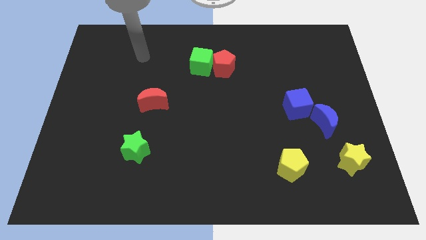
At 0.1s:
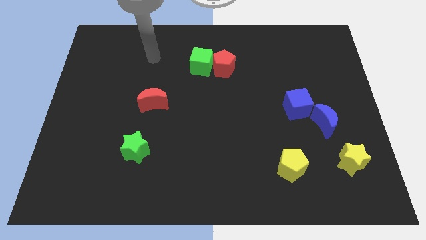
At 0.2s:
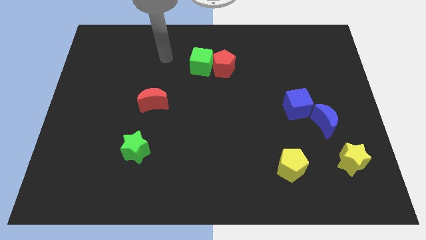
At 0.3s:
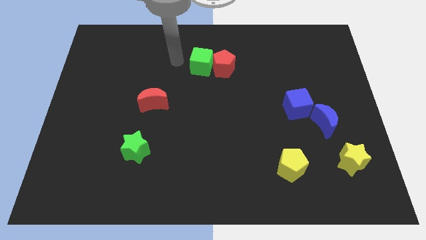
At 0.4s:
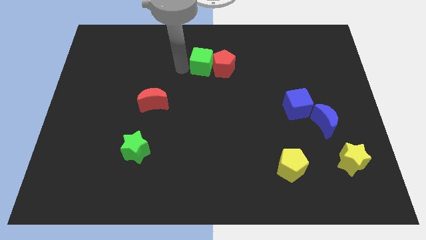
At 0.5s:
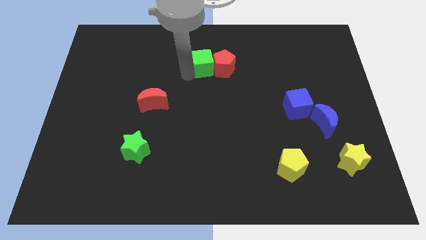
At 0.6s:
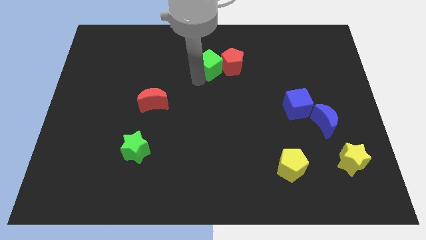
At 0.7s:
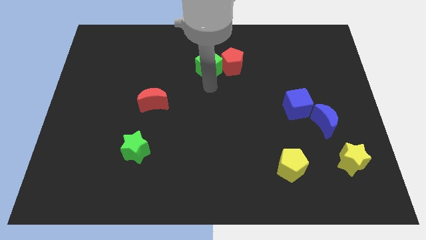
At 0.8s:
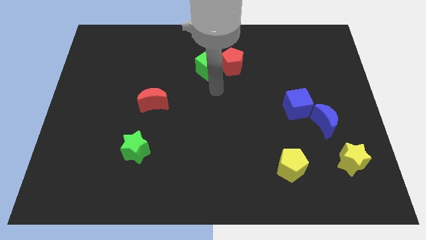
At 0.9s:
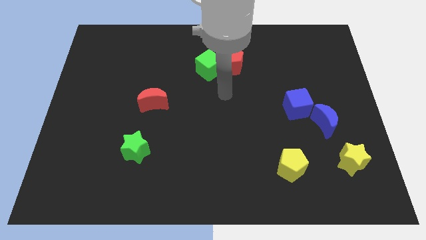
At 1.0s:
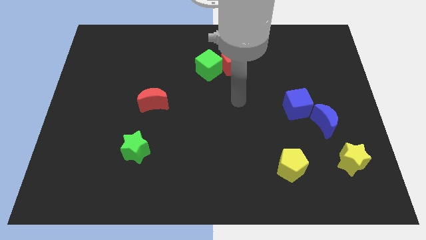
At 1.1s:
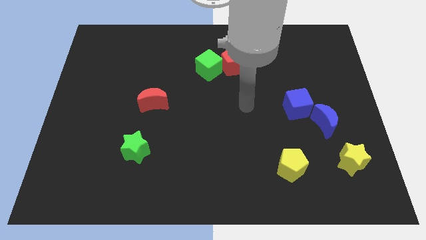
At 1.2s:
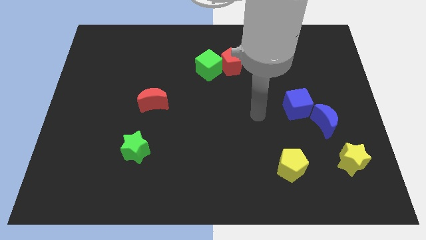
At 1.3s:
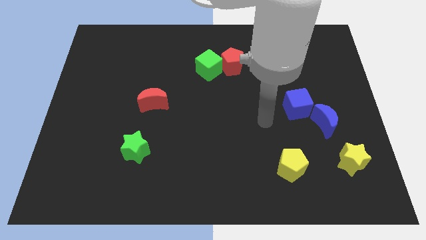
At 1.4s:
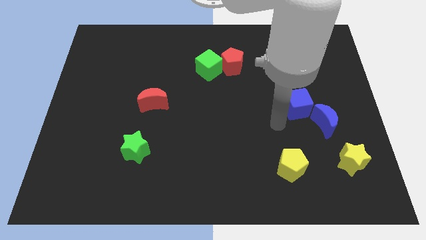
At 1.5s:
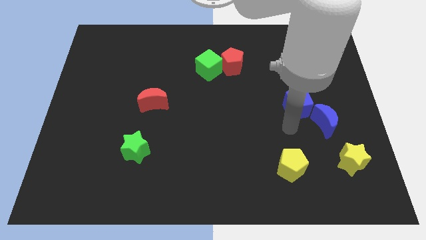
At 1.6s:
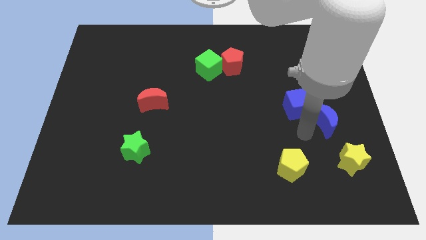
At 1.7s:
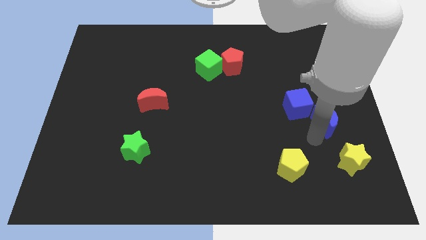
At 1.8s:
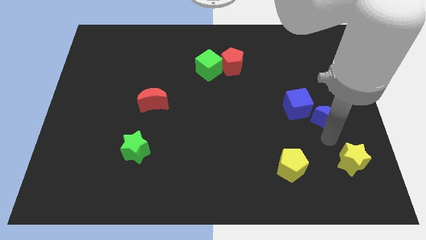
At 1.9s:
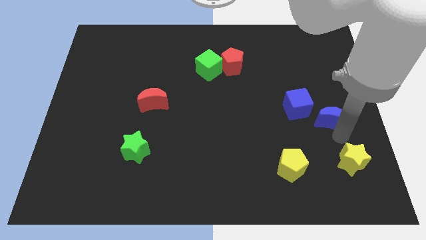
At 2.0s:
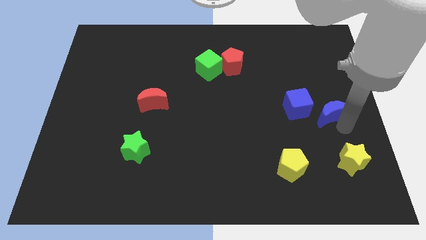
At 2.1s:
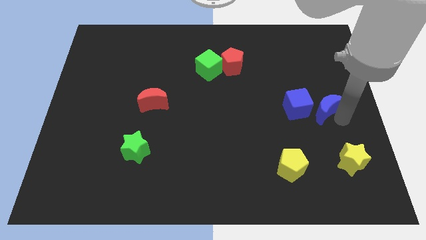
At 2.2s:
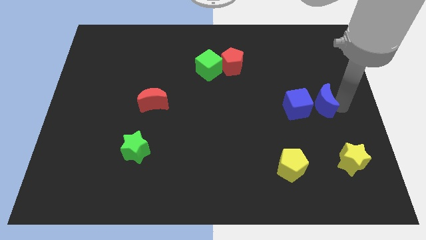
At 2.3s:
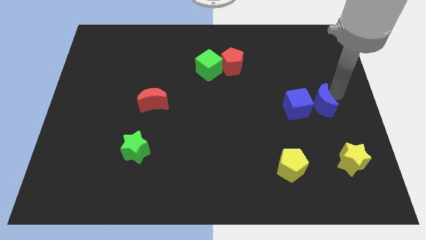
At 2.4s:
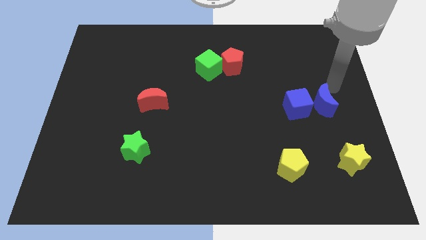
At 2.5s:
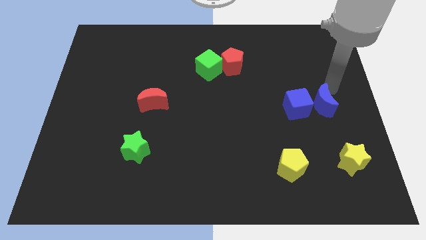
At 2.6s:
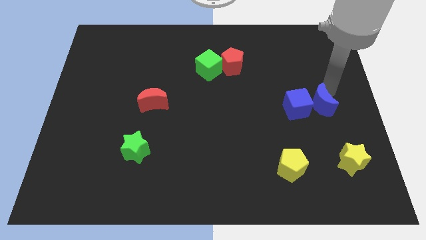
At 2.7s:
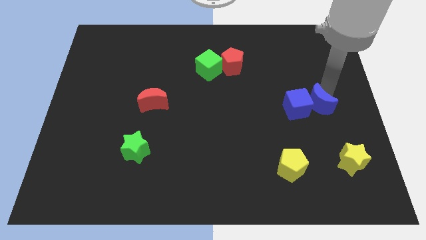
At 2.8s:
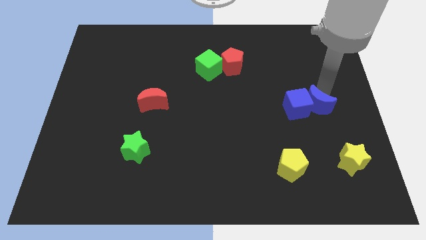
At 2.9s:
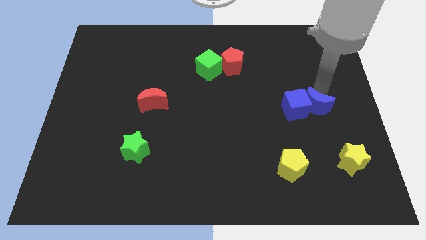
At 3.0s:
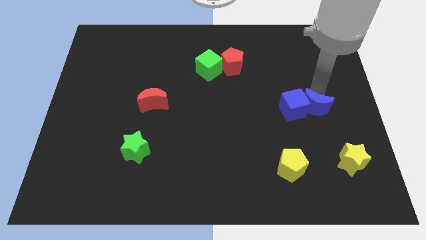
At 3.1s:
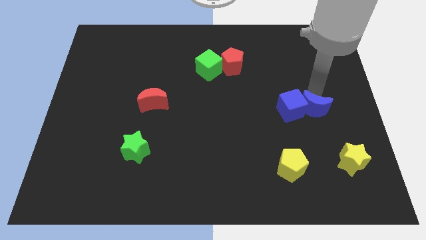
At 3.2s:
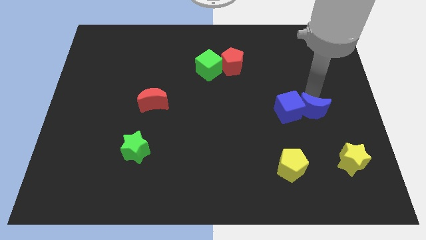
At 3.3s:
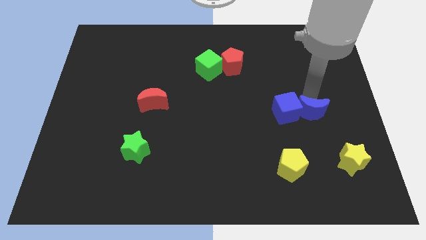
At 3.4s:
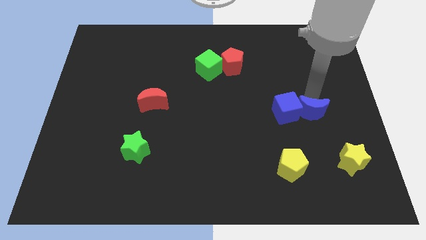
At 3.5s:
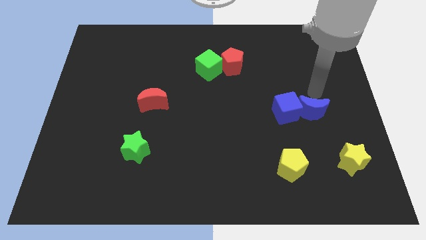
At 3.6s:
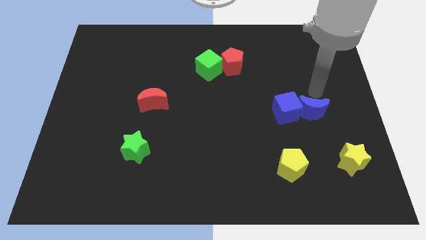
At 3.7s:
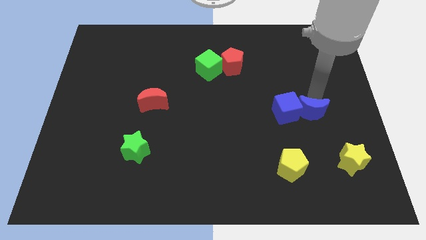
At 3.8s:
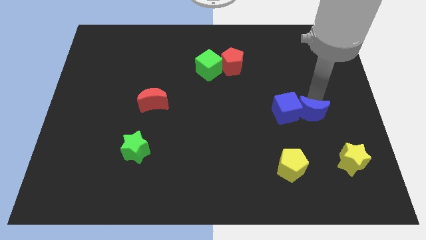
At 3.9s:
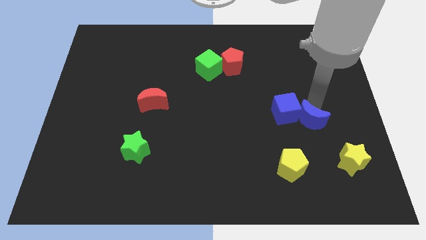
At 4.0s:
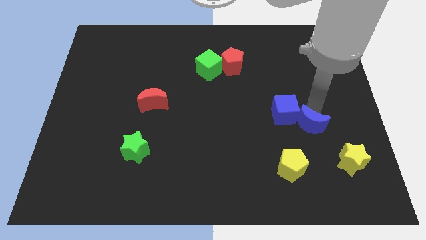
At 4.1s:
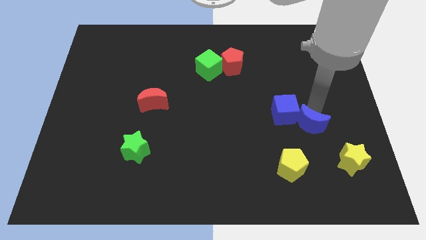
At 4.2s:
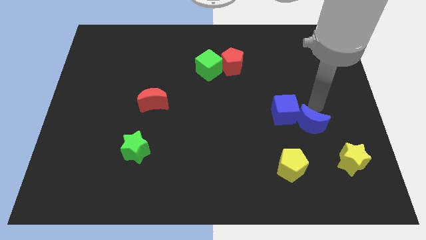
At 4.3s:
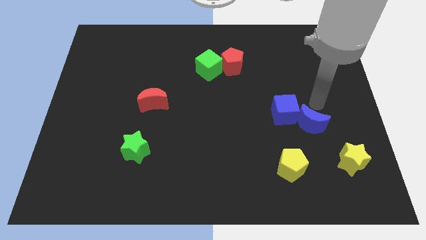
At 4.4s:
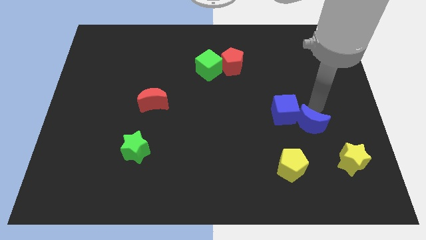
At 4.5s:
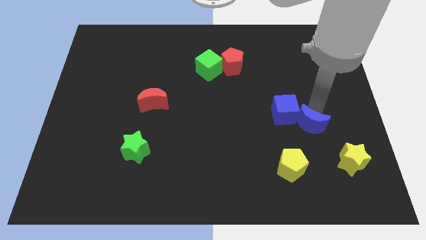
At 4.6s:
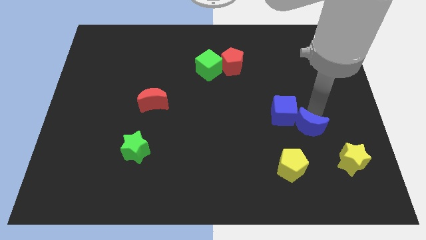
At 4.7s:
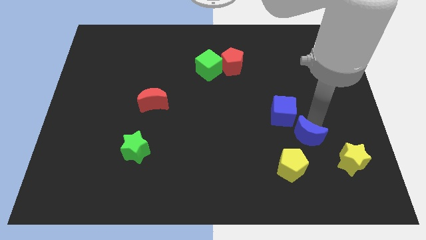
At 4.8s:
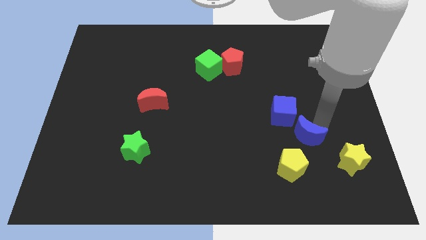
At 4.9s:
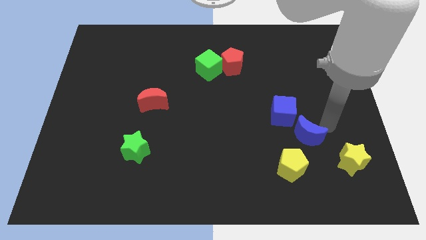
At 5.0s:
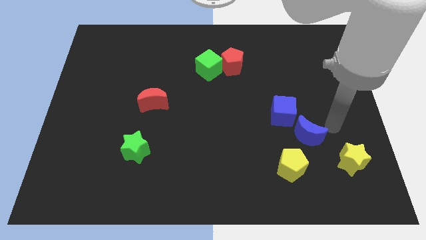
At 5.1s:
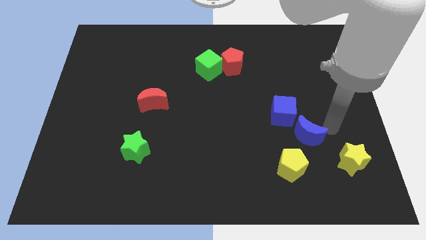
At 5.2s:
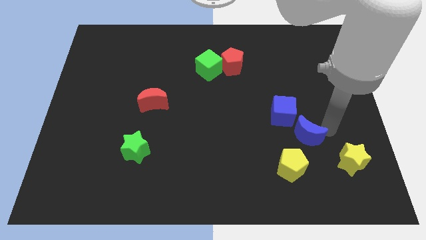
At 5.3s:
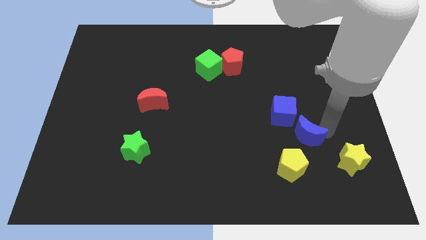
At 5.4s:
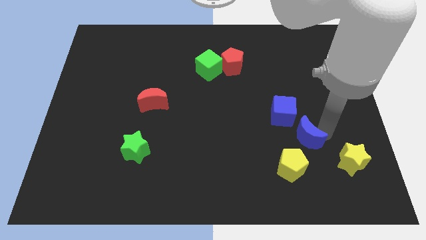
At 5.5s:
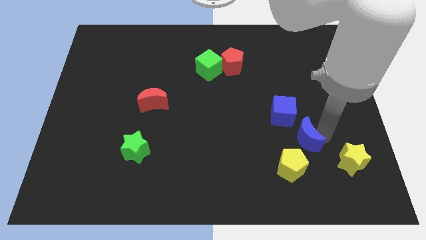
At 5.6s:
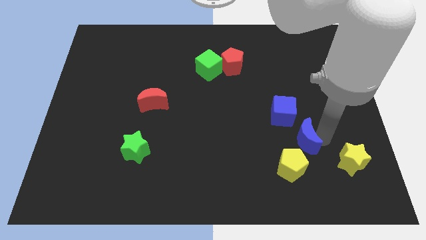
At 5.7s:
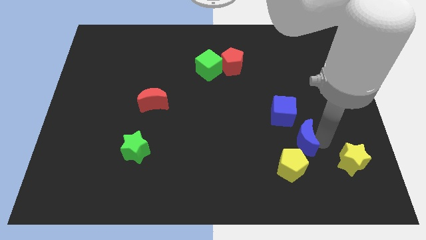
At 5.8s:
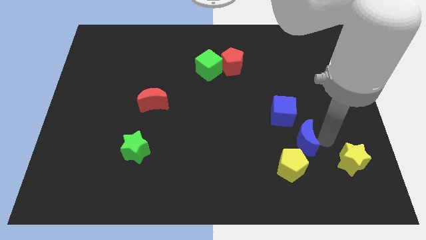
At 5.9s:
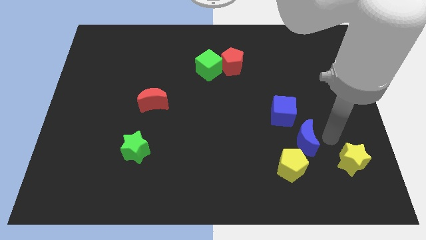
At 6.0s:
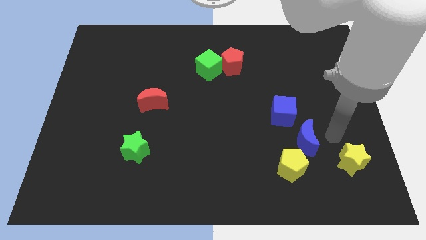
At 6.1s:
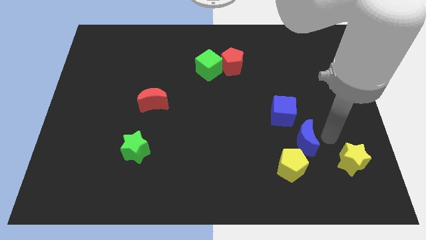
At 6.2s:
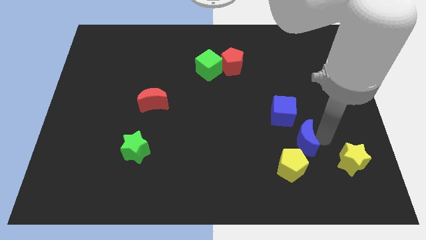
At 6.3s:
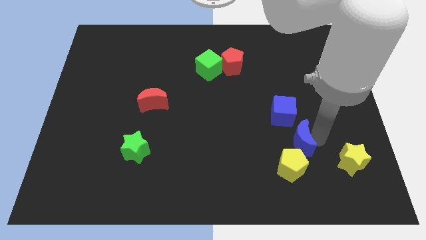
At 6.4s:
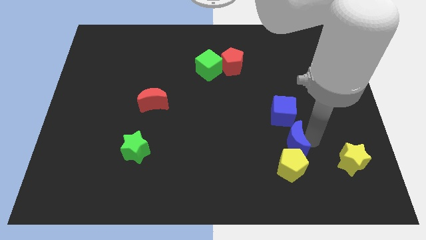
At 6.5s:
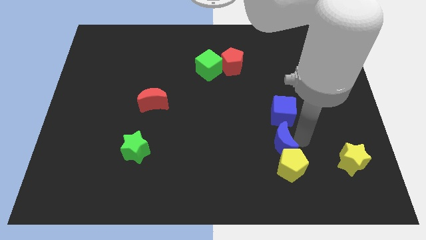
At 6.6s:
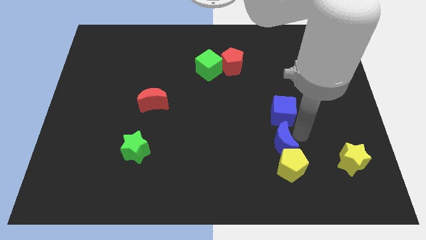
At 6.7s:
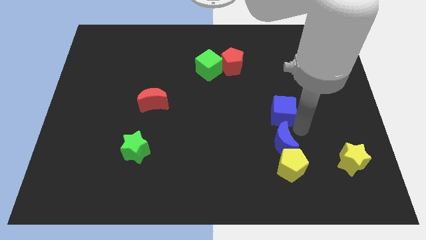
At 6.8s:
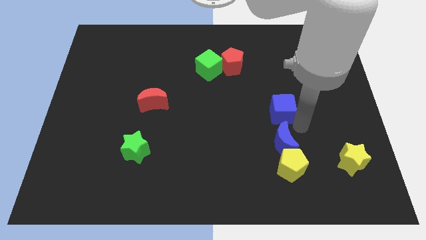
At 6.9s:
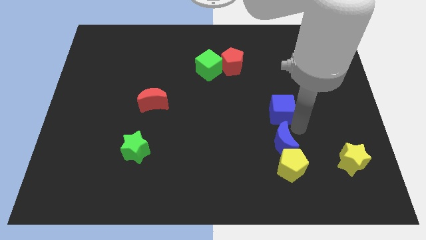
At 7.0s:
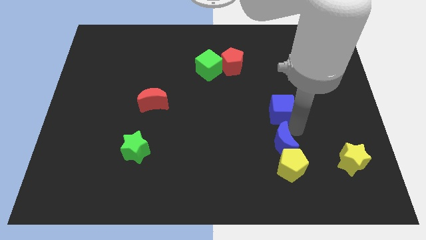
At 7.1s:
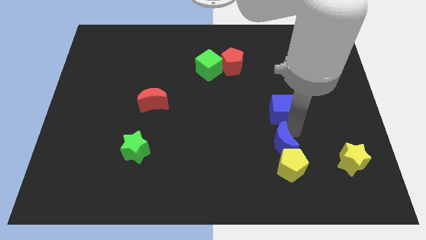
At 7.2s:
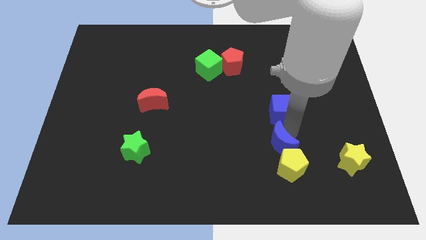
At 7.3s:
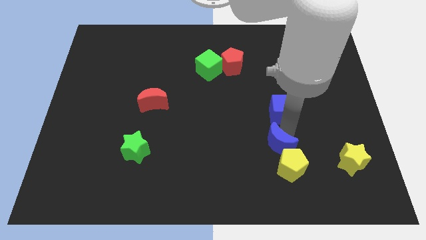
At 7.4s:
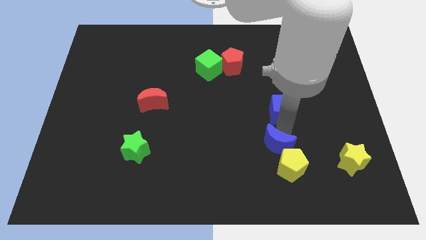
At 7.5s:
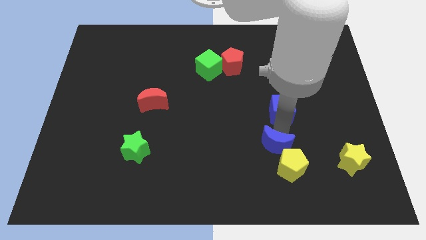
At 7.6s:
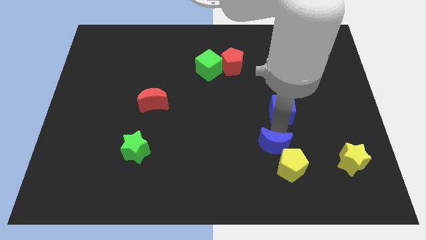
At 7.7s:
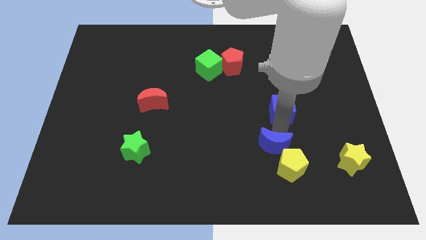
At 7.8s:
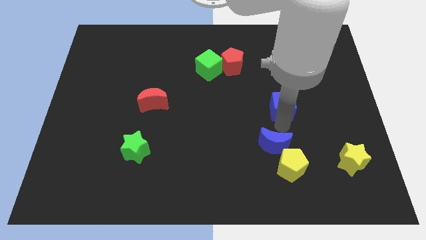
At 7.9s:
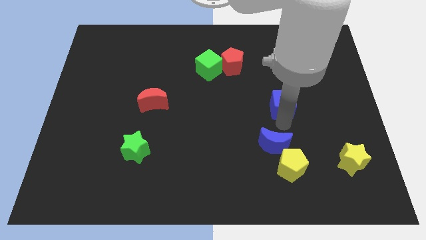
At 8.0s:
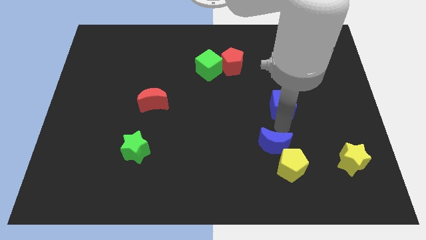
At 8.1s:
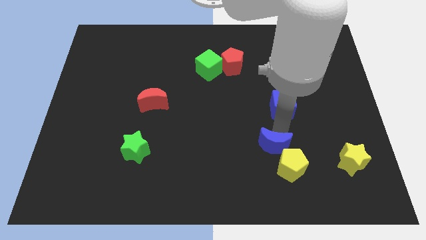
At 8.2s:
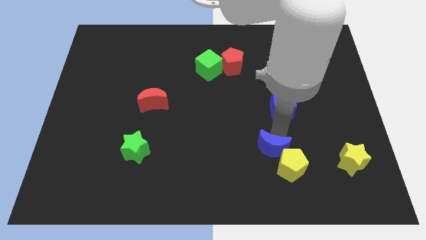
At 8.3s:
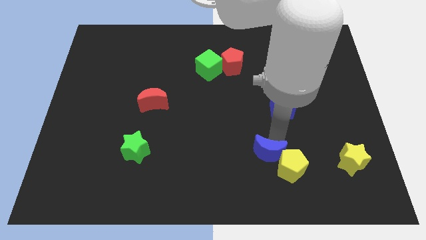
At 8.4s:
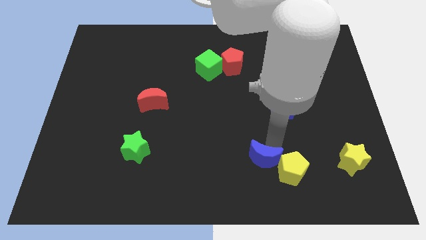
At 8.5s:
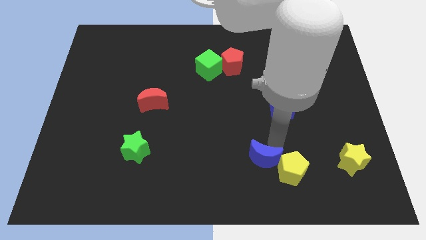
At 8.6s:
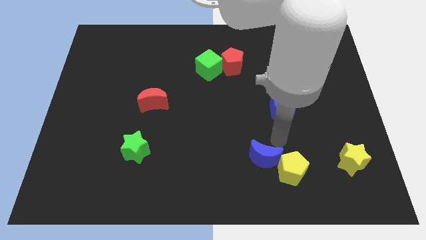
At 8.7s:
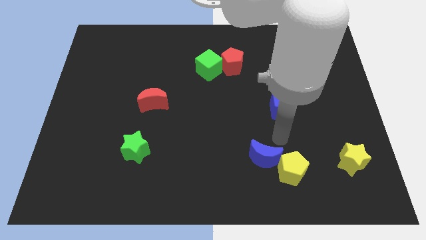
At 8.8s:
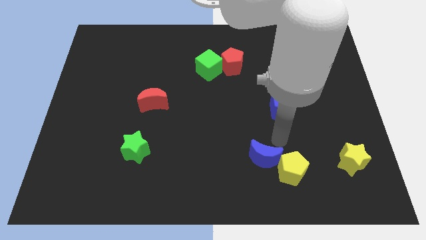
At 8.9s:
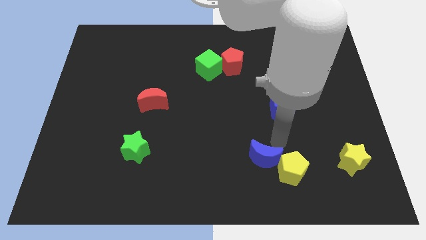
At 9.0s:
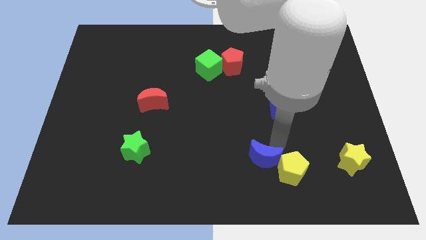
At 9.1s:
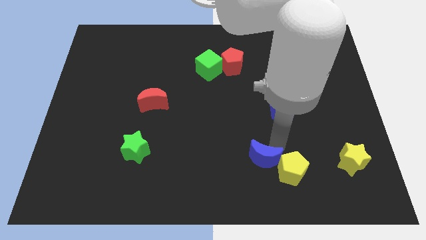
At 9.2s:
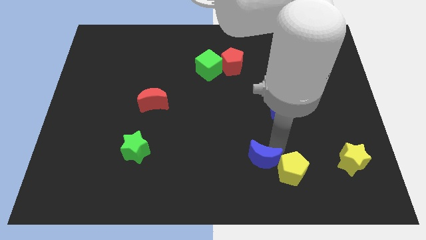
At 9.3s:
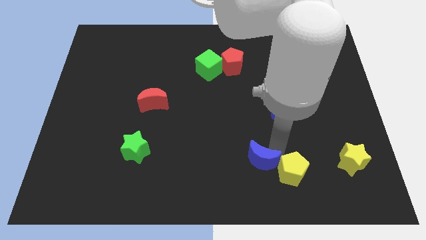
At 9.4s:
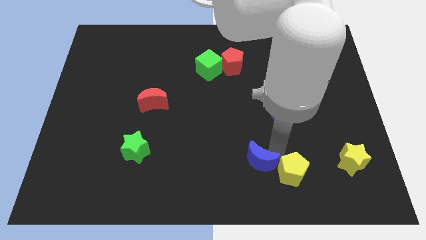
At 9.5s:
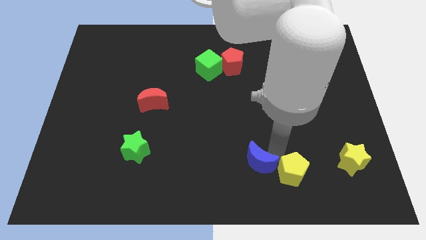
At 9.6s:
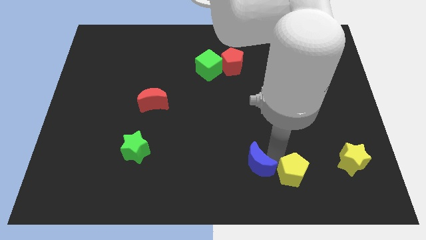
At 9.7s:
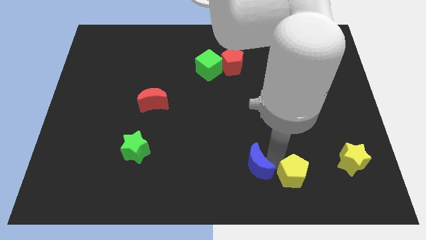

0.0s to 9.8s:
slide the blue moon to the bottom
